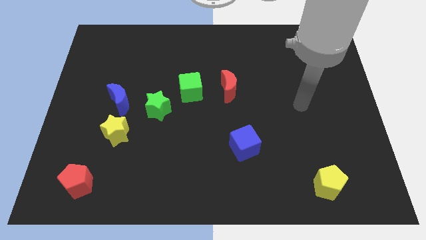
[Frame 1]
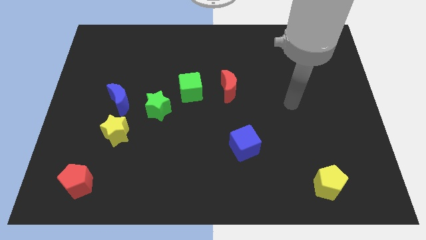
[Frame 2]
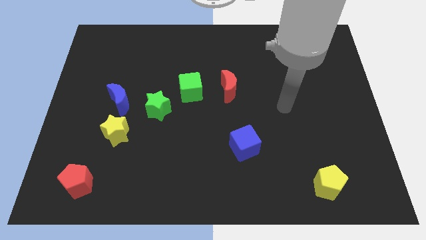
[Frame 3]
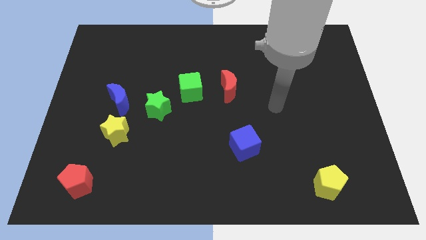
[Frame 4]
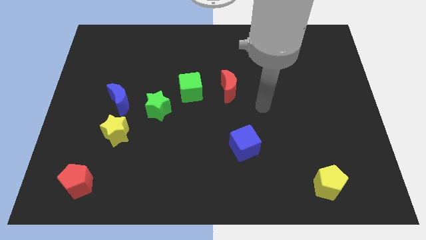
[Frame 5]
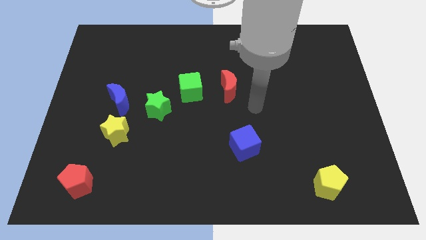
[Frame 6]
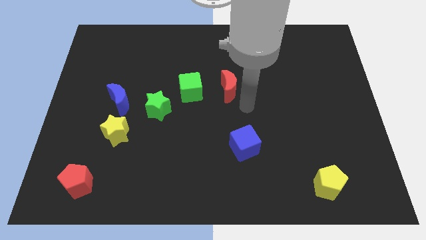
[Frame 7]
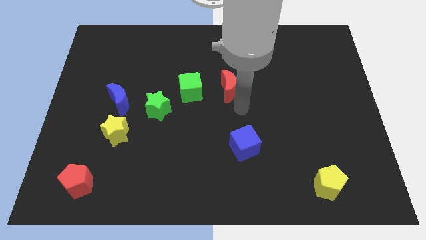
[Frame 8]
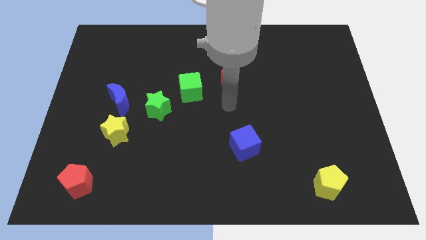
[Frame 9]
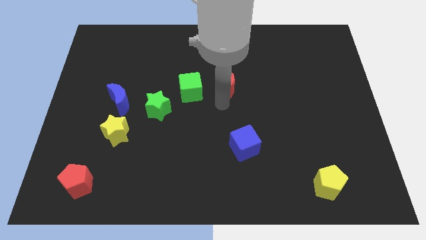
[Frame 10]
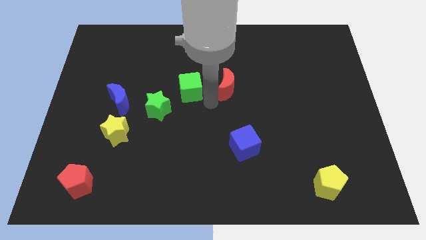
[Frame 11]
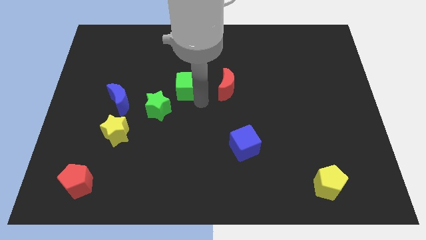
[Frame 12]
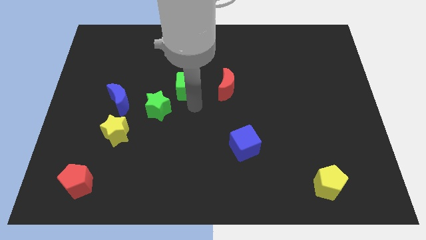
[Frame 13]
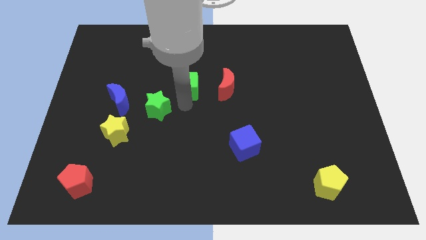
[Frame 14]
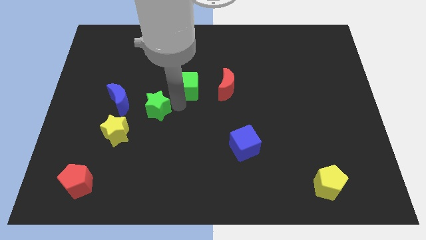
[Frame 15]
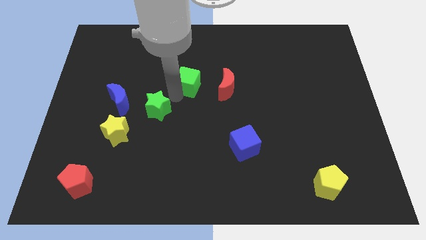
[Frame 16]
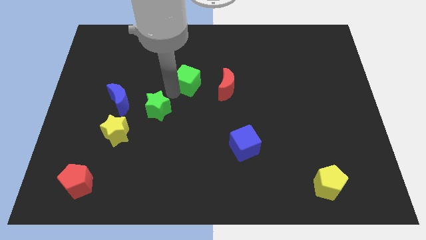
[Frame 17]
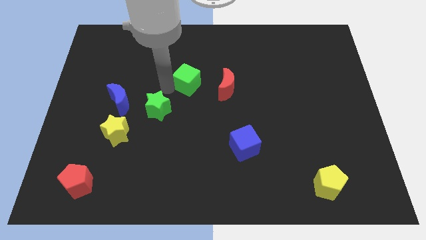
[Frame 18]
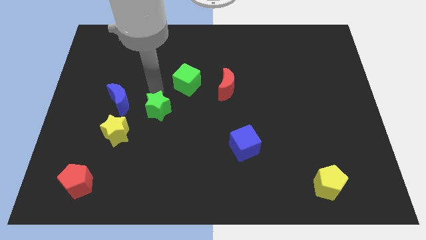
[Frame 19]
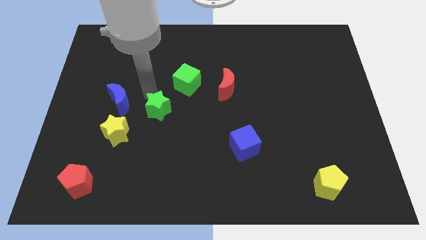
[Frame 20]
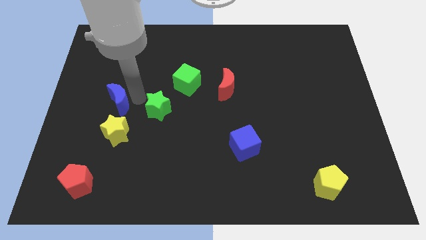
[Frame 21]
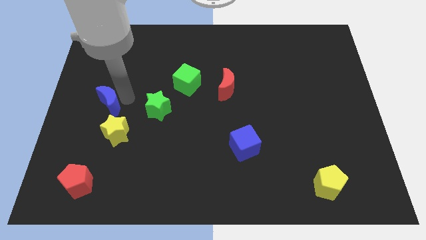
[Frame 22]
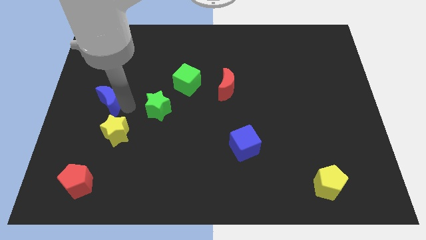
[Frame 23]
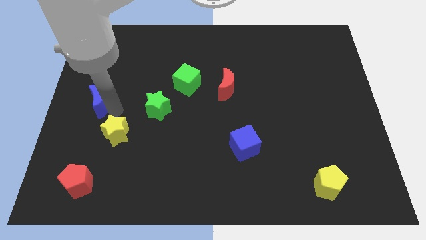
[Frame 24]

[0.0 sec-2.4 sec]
pull the yellow star apart from the blue moon

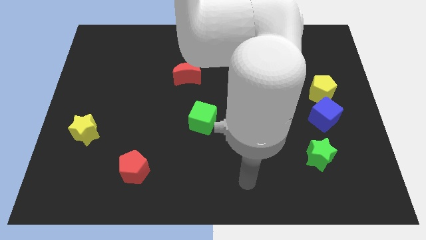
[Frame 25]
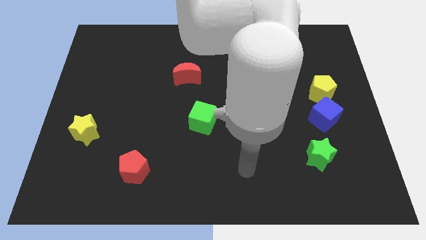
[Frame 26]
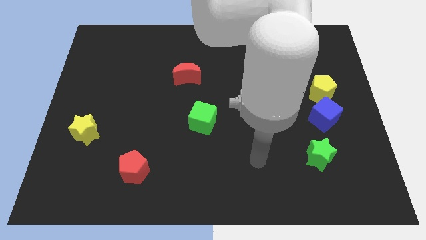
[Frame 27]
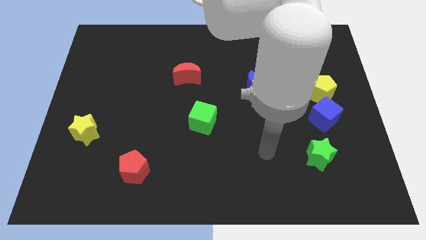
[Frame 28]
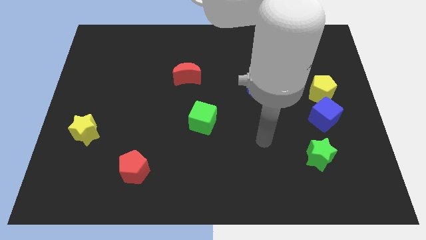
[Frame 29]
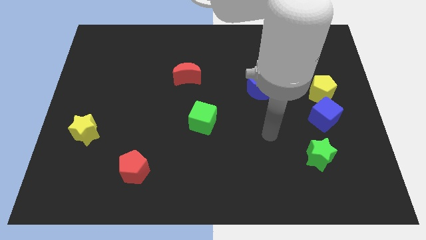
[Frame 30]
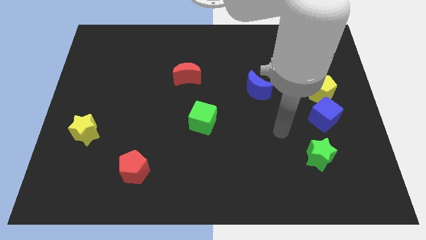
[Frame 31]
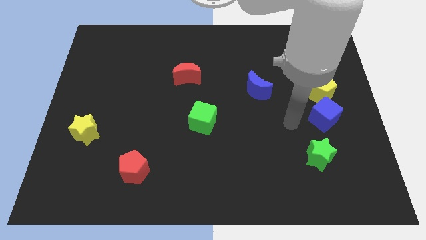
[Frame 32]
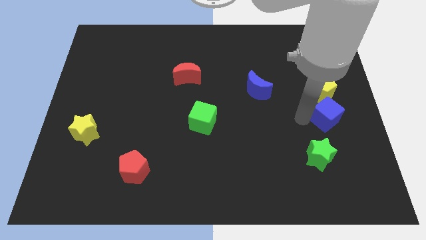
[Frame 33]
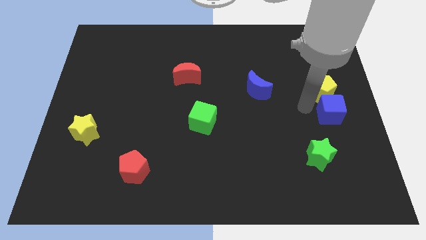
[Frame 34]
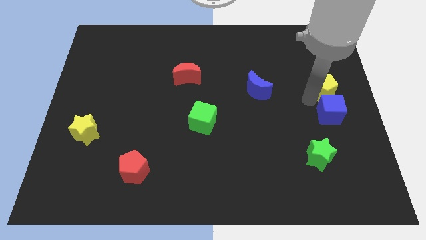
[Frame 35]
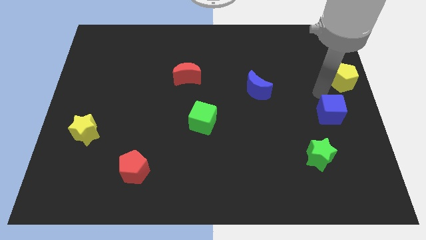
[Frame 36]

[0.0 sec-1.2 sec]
move the blue cube away from the yellow pentagon

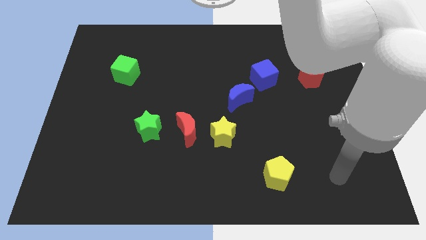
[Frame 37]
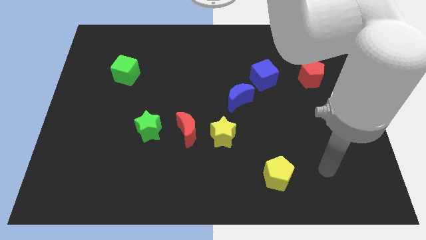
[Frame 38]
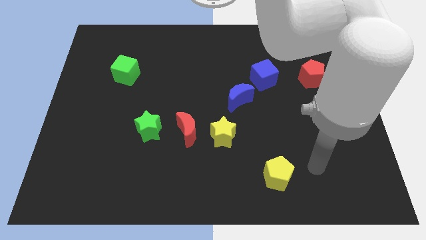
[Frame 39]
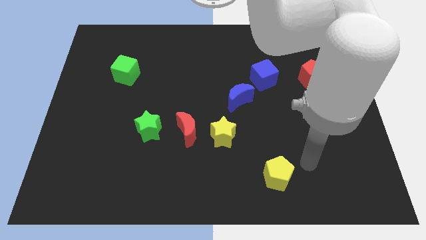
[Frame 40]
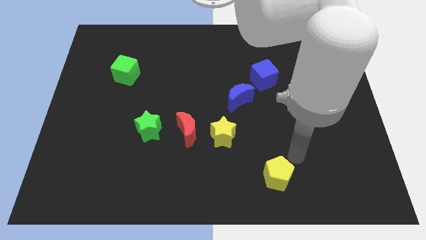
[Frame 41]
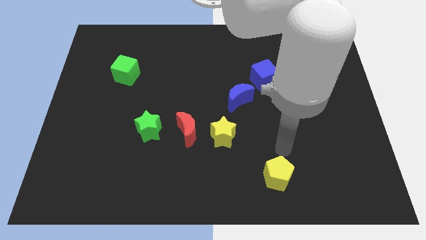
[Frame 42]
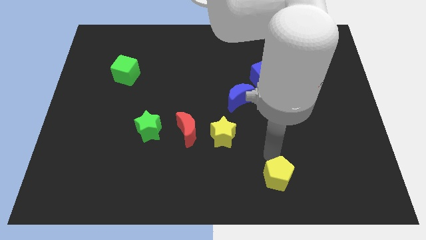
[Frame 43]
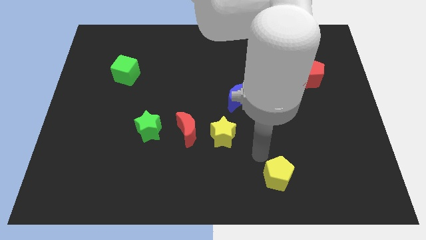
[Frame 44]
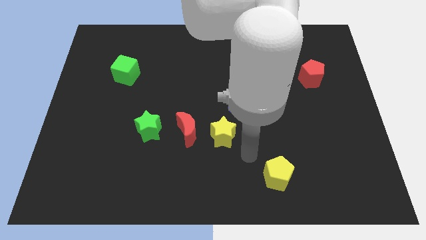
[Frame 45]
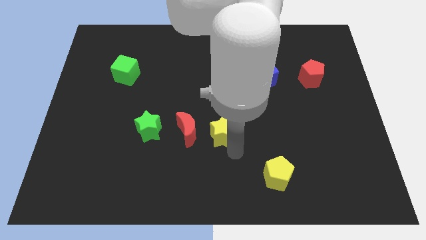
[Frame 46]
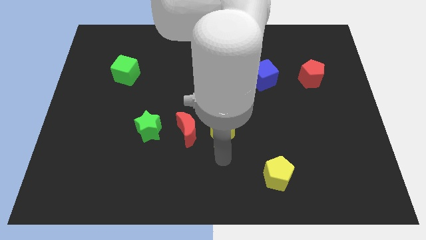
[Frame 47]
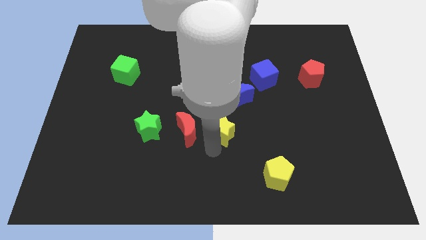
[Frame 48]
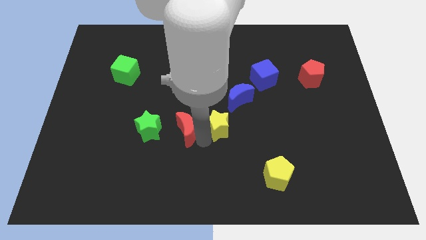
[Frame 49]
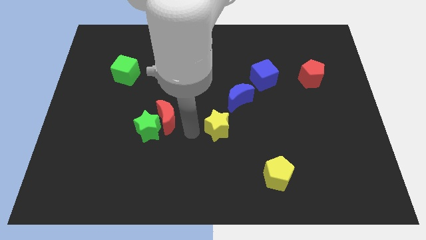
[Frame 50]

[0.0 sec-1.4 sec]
move the yellow star away from the red moon

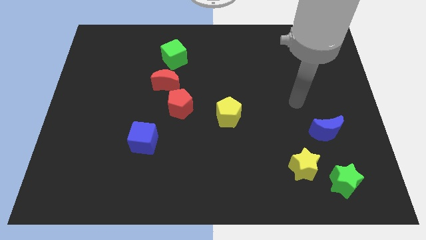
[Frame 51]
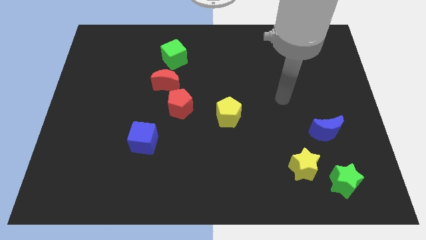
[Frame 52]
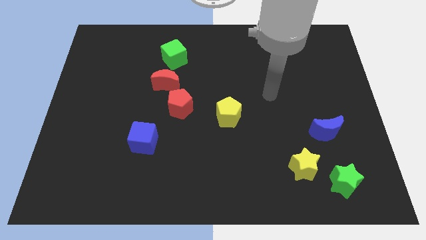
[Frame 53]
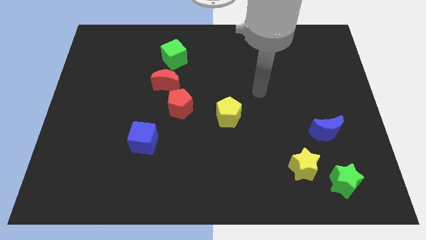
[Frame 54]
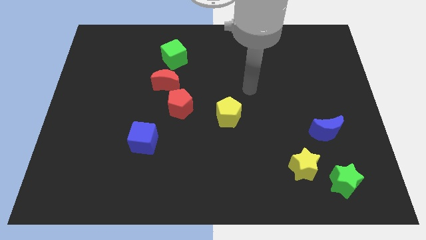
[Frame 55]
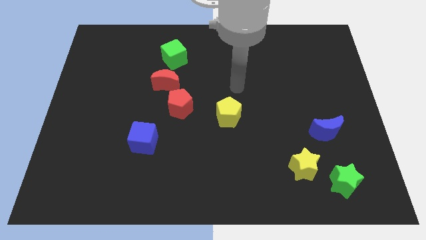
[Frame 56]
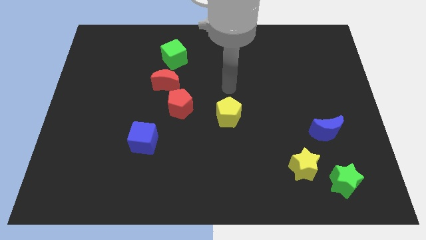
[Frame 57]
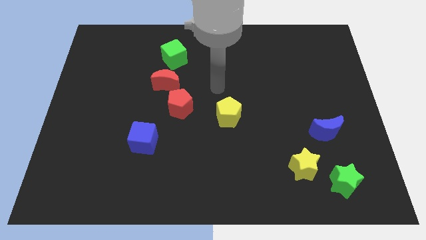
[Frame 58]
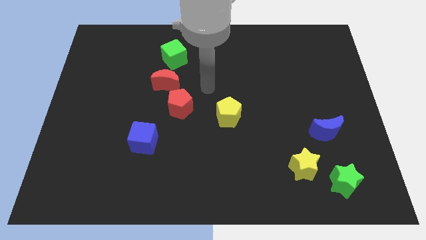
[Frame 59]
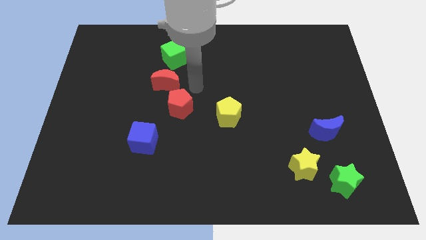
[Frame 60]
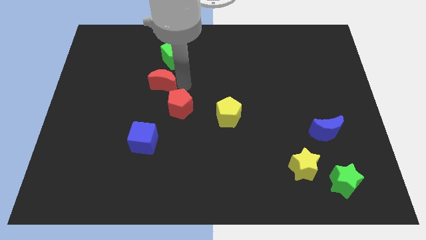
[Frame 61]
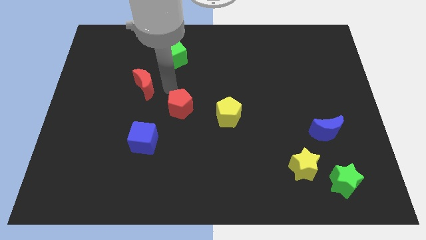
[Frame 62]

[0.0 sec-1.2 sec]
pull the red pentagon apart from the red moon

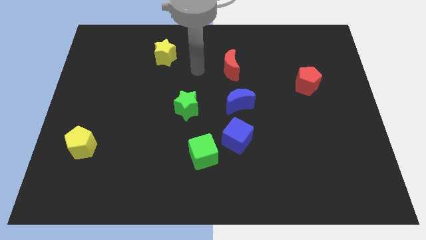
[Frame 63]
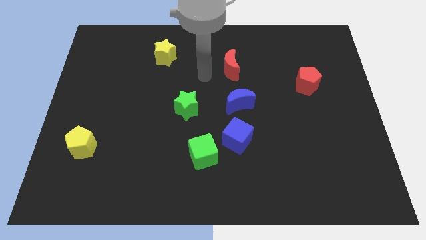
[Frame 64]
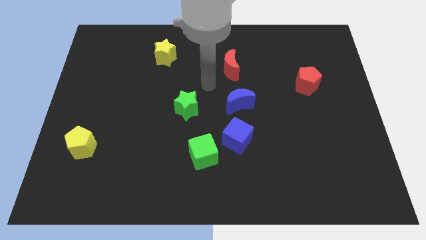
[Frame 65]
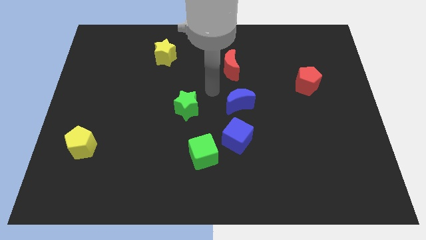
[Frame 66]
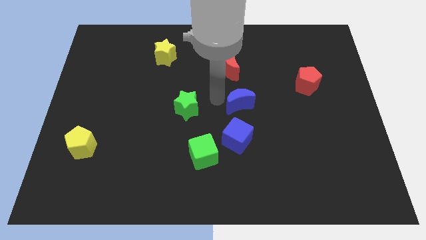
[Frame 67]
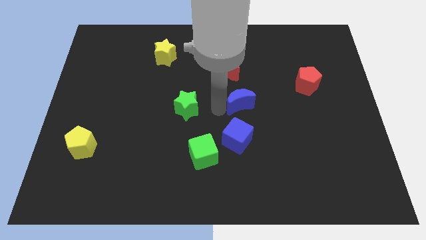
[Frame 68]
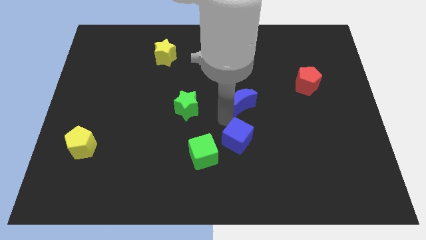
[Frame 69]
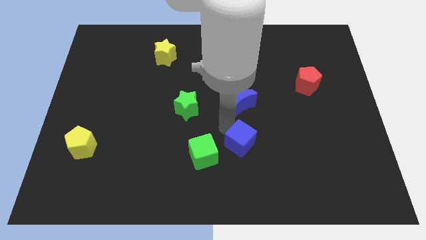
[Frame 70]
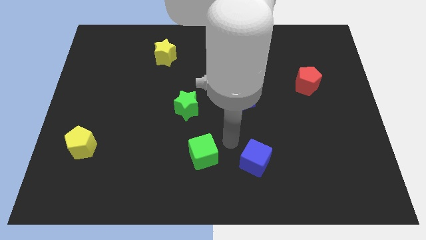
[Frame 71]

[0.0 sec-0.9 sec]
separate the green cube from the blue cube

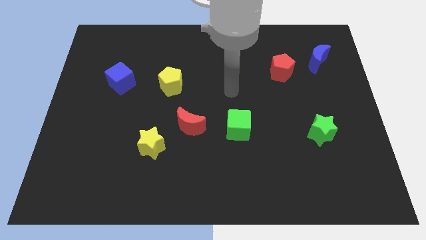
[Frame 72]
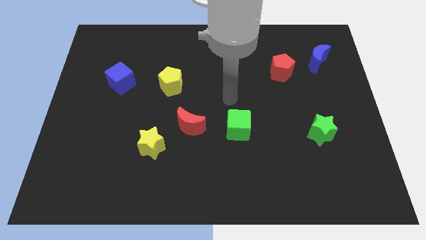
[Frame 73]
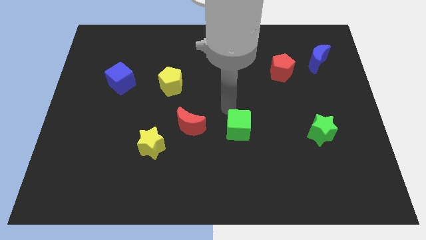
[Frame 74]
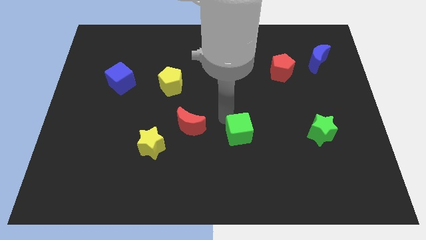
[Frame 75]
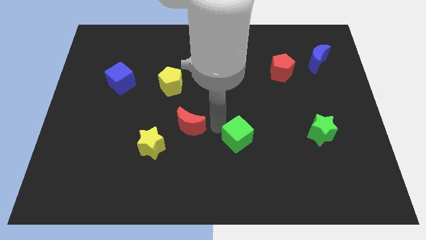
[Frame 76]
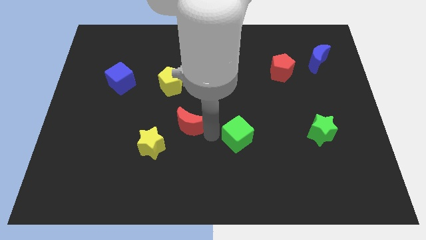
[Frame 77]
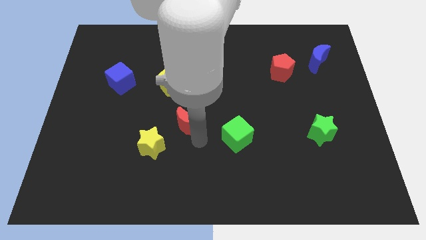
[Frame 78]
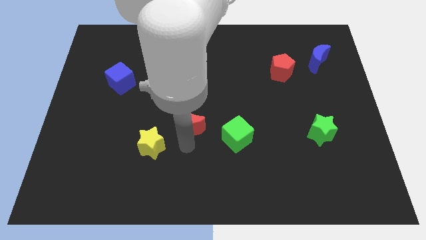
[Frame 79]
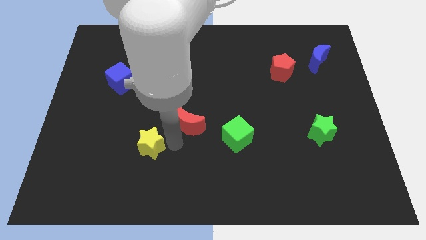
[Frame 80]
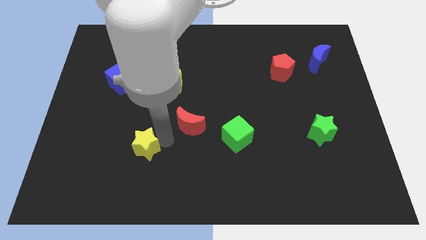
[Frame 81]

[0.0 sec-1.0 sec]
separate the red moon from the yellow star

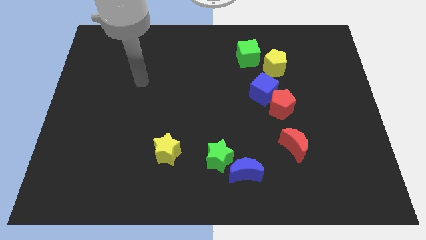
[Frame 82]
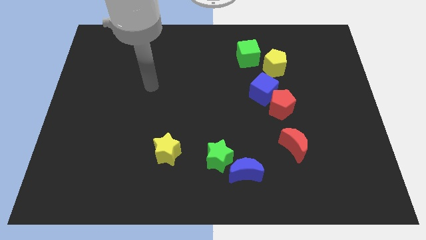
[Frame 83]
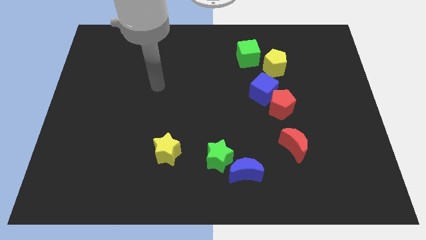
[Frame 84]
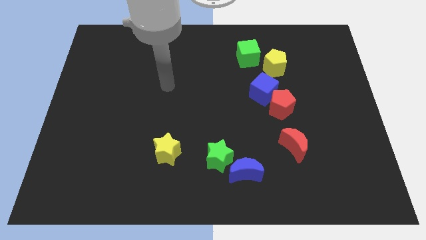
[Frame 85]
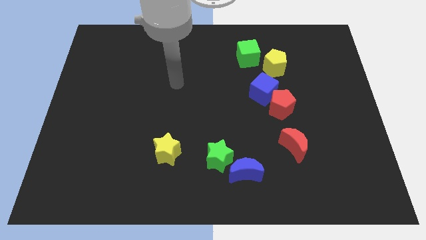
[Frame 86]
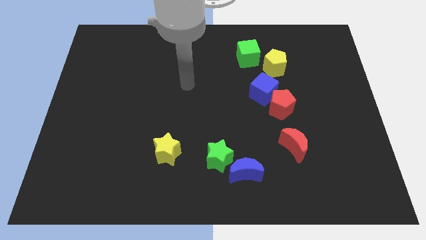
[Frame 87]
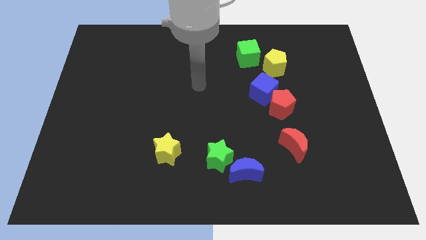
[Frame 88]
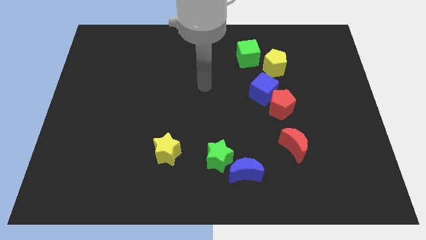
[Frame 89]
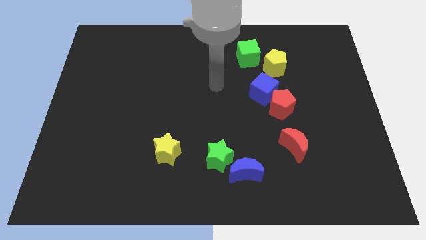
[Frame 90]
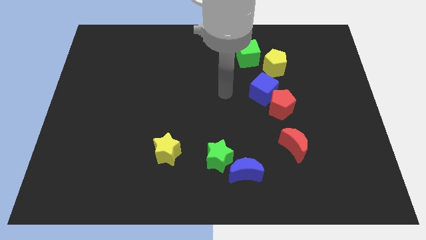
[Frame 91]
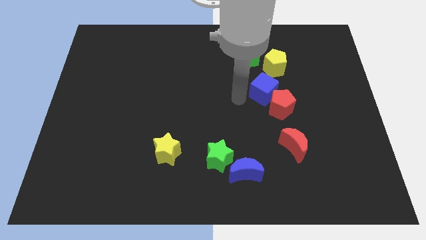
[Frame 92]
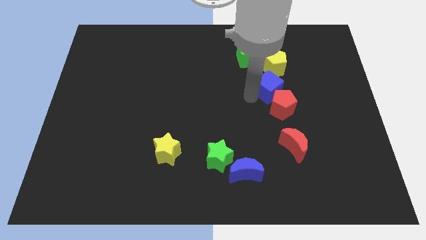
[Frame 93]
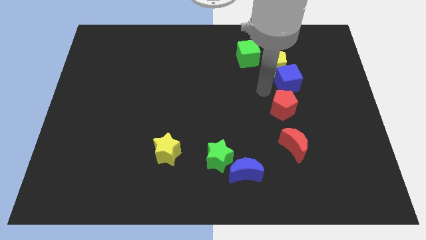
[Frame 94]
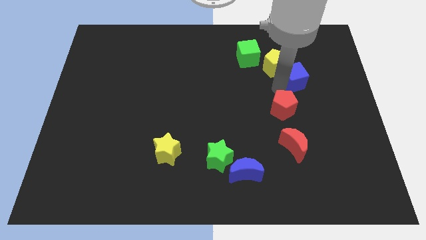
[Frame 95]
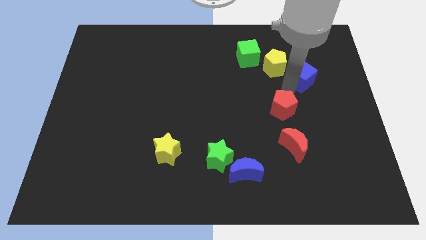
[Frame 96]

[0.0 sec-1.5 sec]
separate the red pentagon from the blue cube
